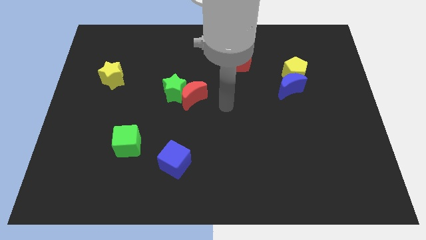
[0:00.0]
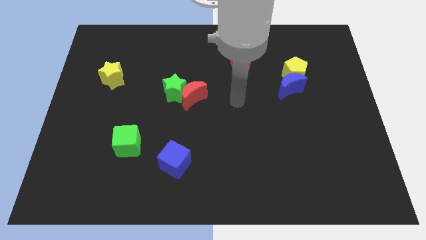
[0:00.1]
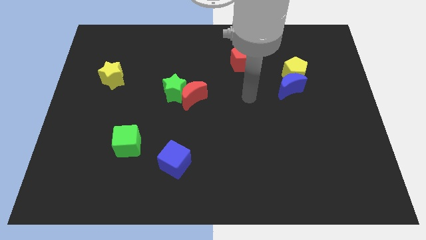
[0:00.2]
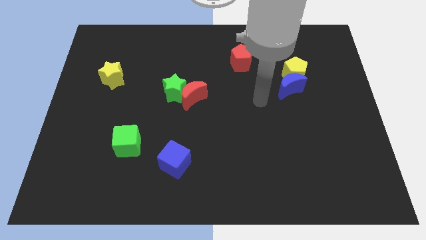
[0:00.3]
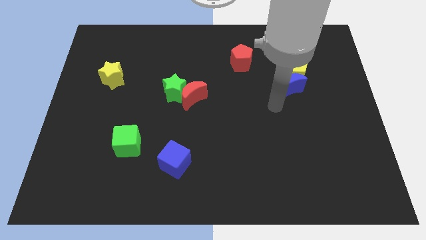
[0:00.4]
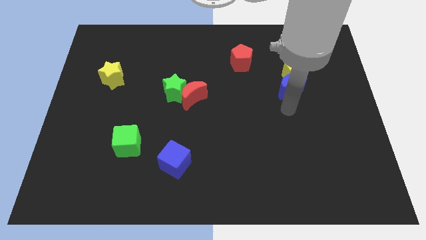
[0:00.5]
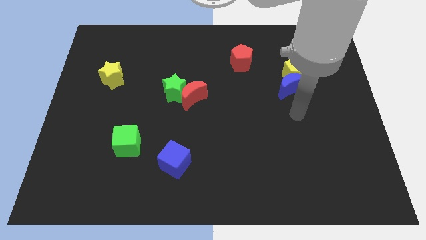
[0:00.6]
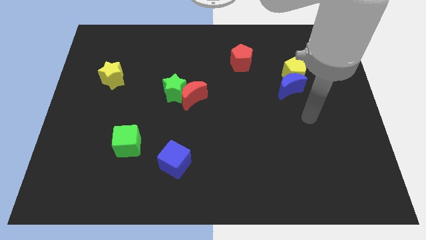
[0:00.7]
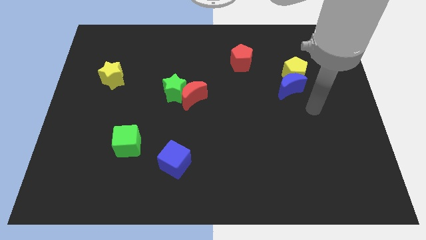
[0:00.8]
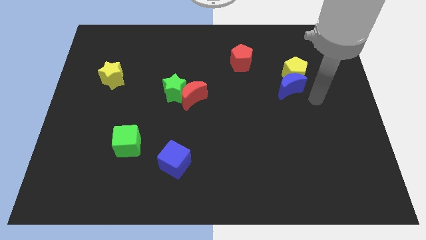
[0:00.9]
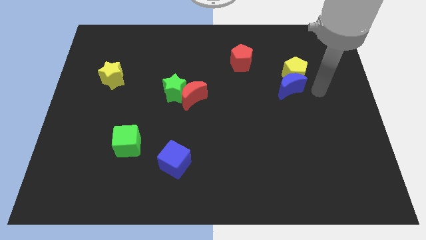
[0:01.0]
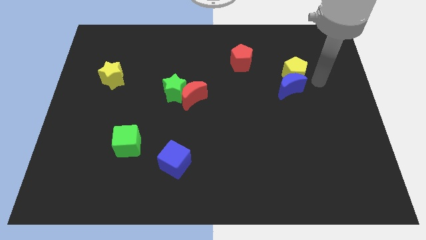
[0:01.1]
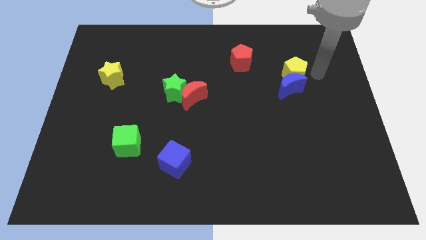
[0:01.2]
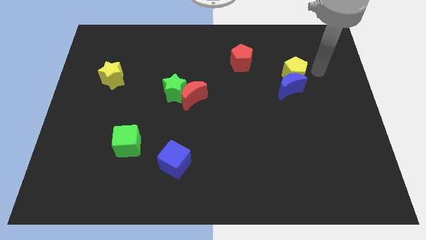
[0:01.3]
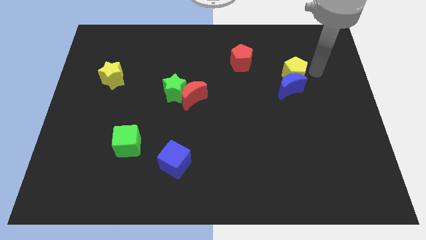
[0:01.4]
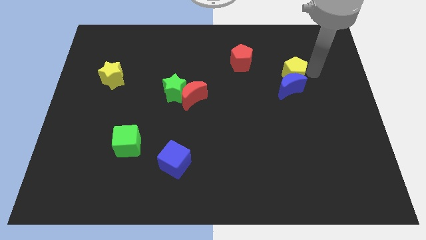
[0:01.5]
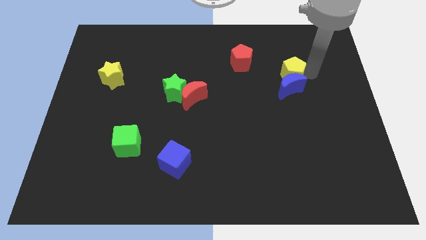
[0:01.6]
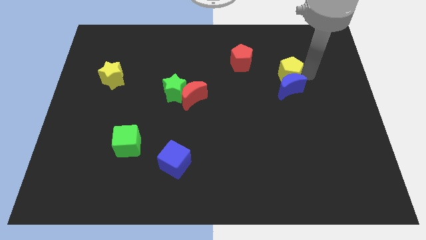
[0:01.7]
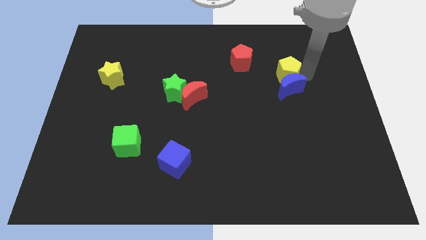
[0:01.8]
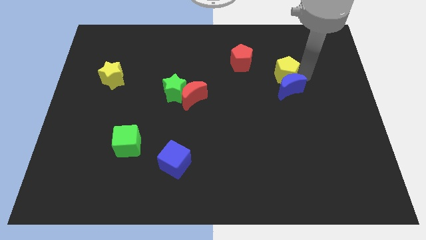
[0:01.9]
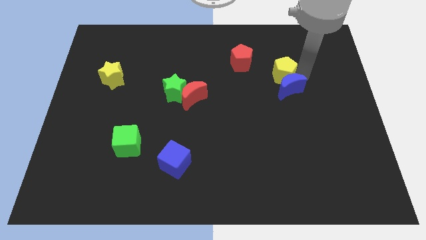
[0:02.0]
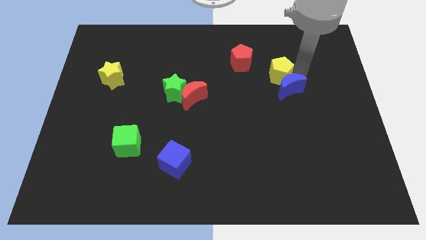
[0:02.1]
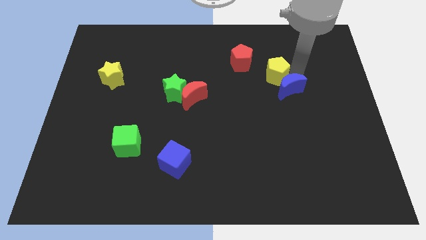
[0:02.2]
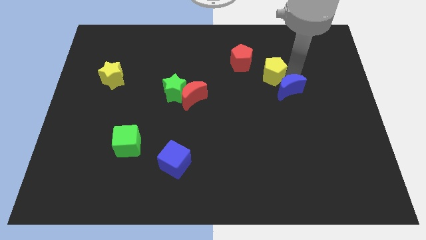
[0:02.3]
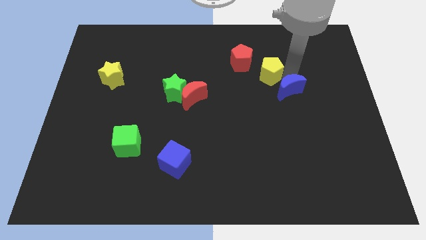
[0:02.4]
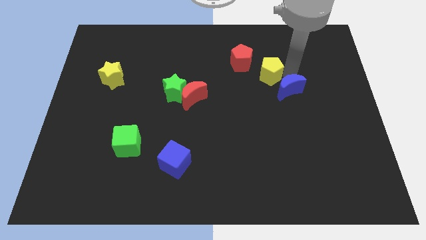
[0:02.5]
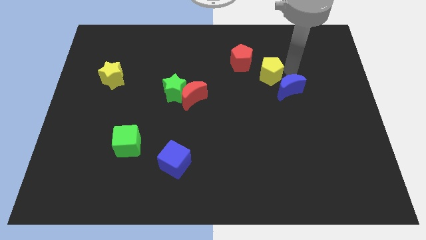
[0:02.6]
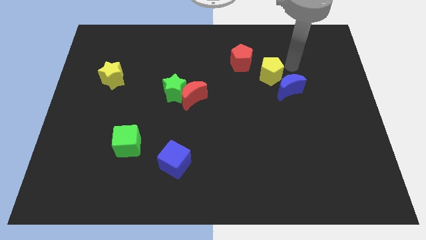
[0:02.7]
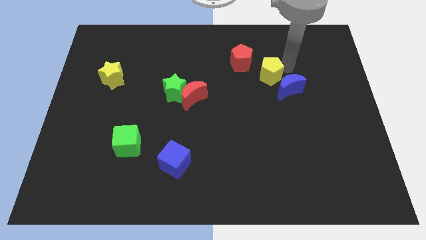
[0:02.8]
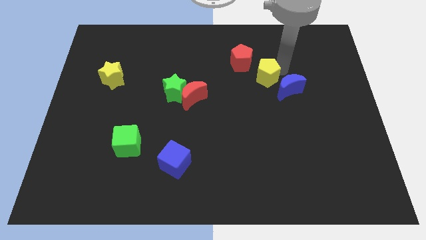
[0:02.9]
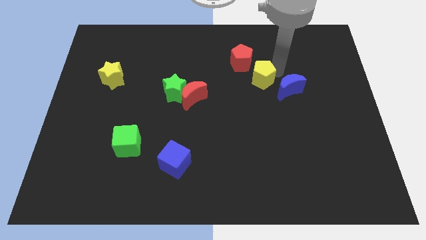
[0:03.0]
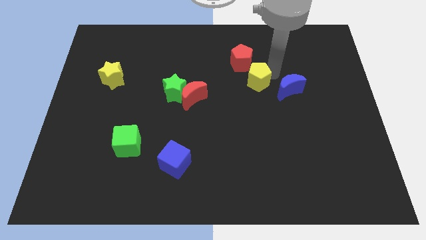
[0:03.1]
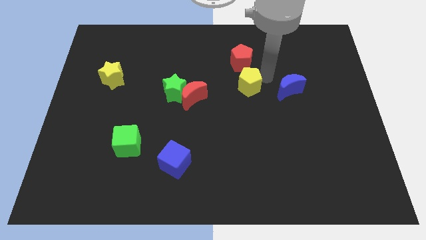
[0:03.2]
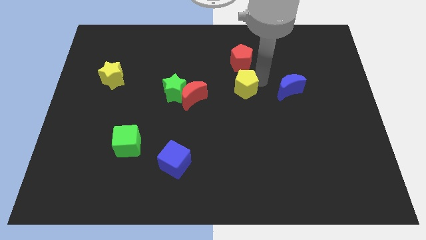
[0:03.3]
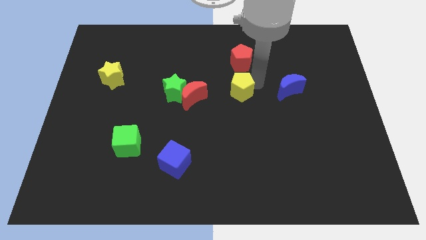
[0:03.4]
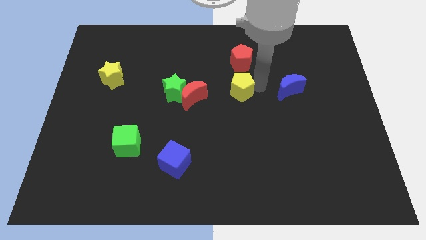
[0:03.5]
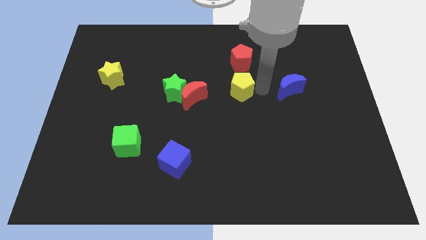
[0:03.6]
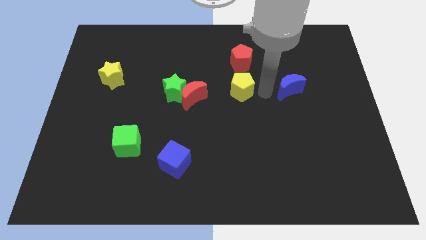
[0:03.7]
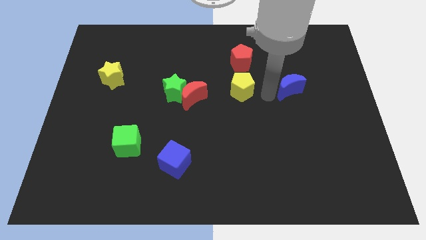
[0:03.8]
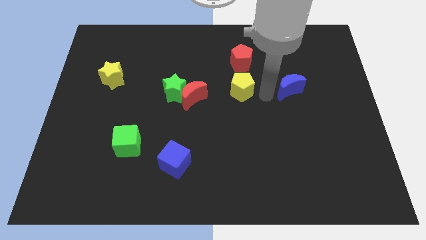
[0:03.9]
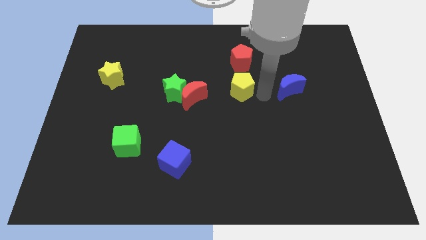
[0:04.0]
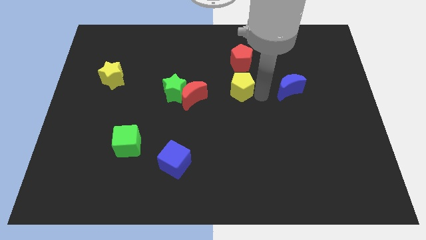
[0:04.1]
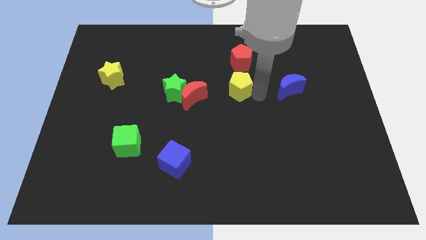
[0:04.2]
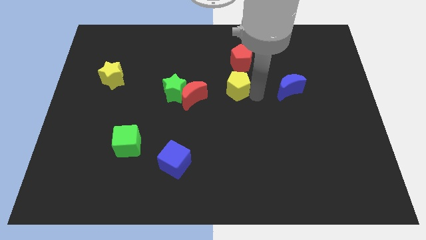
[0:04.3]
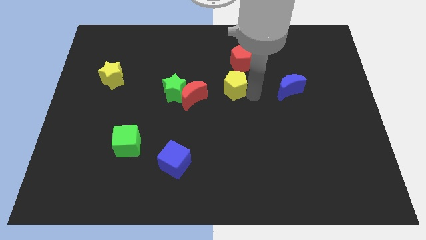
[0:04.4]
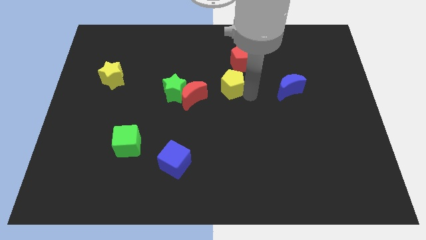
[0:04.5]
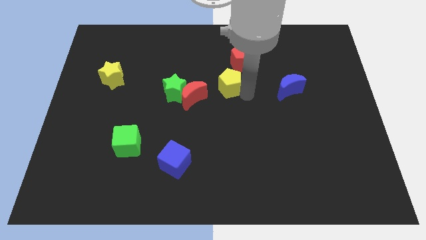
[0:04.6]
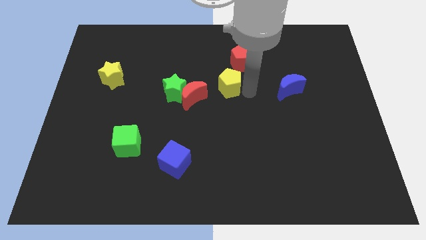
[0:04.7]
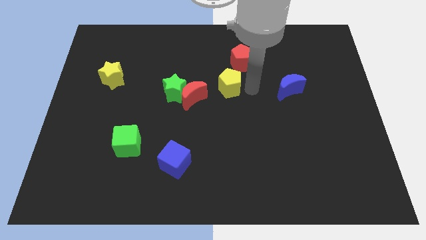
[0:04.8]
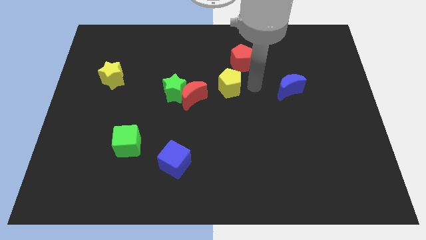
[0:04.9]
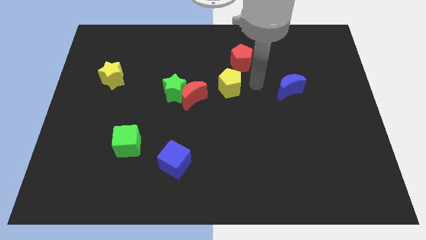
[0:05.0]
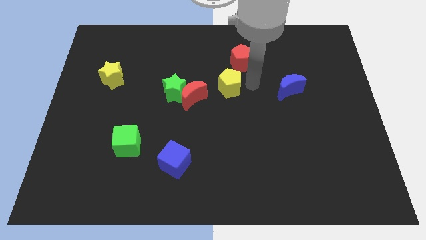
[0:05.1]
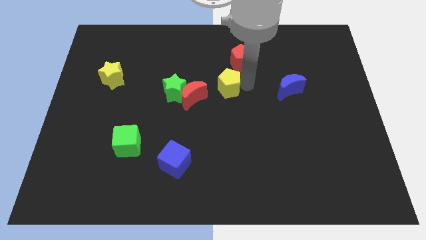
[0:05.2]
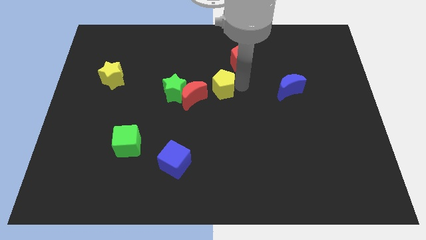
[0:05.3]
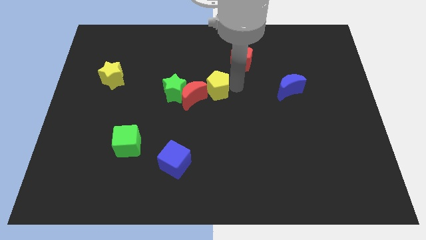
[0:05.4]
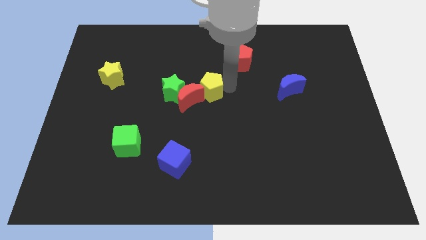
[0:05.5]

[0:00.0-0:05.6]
put the yellow pentagon to the red moon

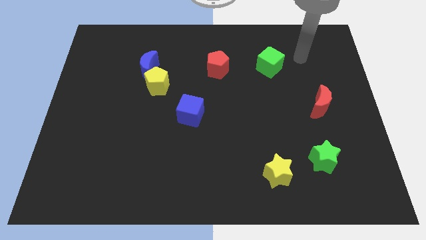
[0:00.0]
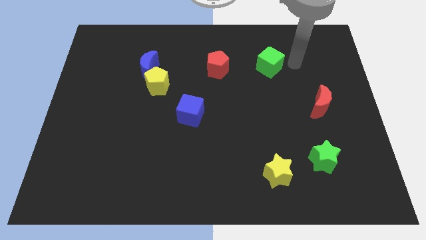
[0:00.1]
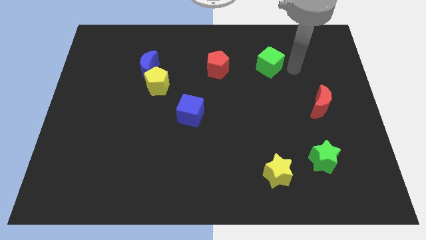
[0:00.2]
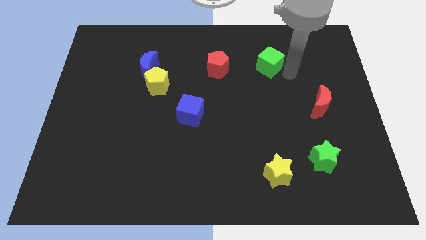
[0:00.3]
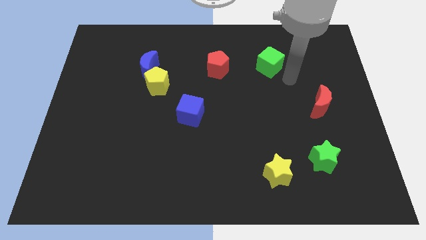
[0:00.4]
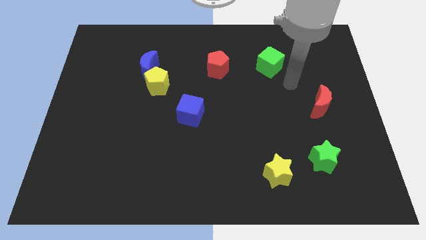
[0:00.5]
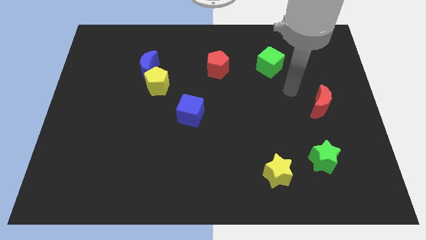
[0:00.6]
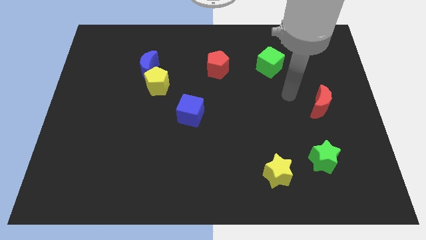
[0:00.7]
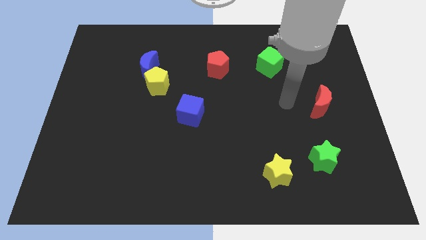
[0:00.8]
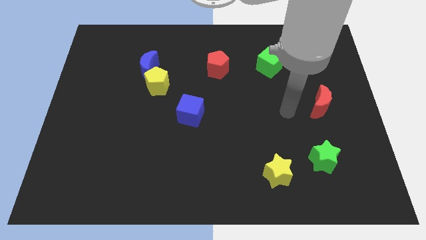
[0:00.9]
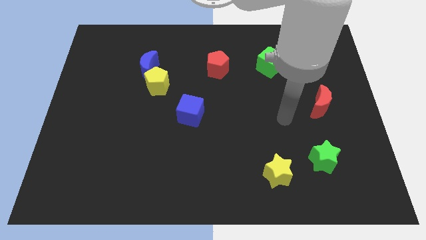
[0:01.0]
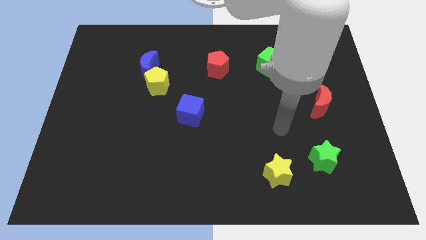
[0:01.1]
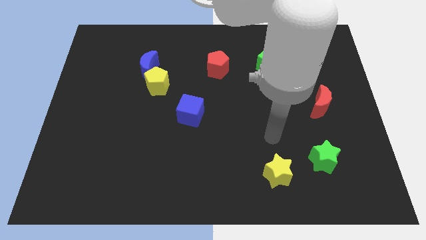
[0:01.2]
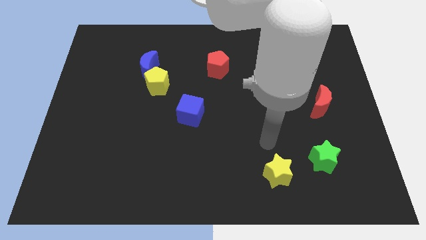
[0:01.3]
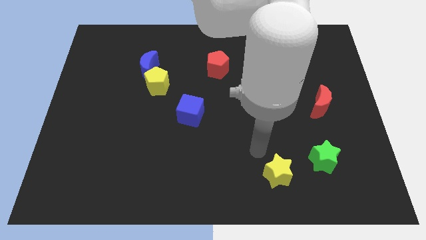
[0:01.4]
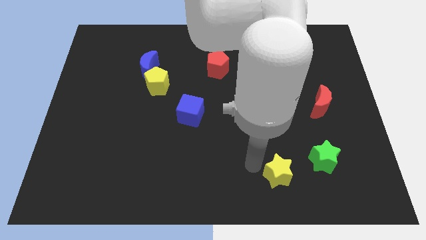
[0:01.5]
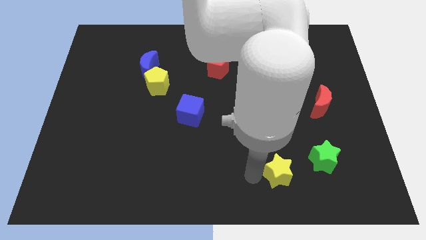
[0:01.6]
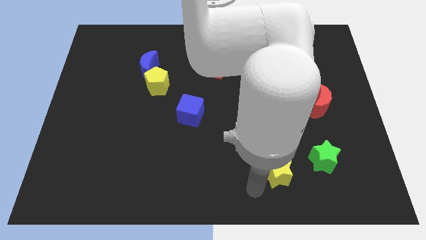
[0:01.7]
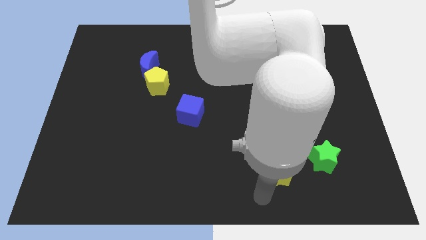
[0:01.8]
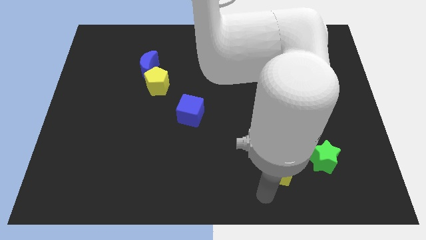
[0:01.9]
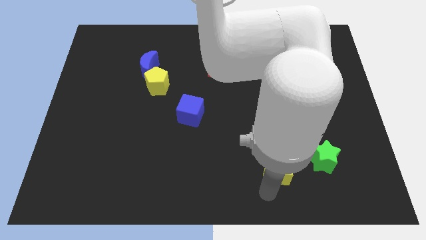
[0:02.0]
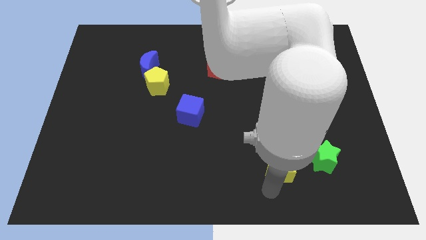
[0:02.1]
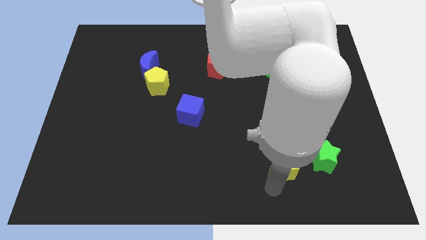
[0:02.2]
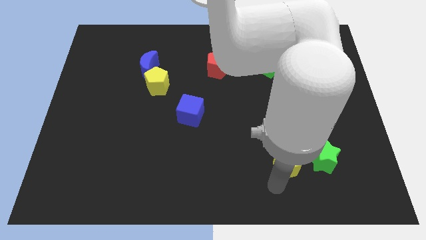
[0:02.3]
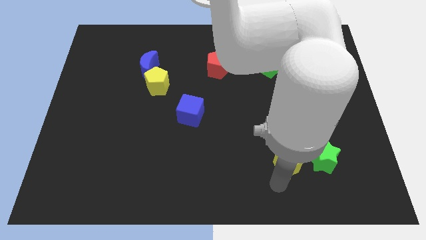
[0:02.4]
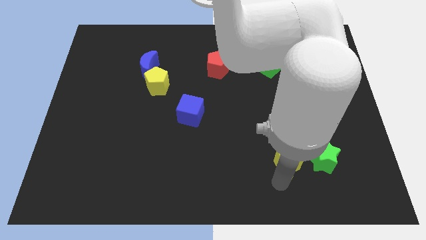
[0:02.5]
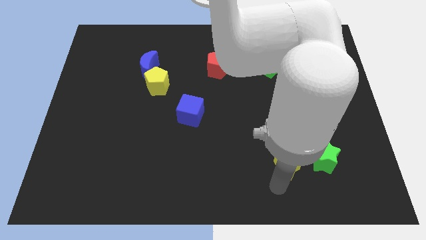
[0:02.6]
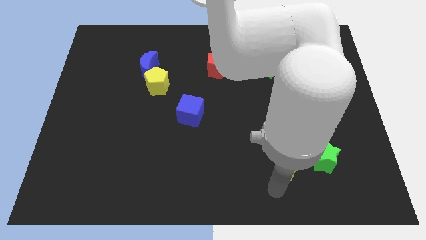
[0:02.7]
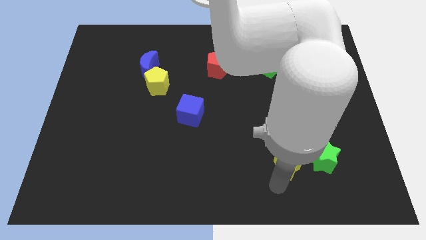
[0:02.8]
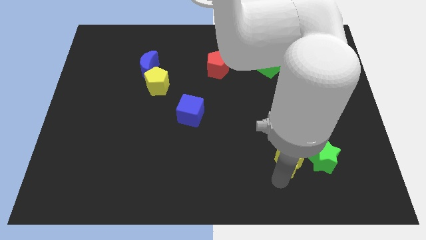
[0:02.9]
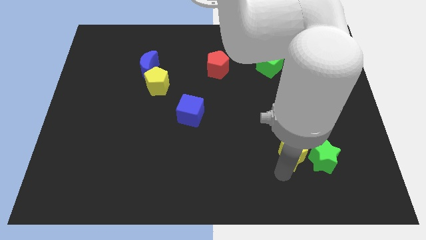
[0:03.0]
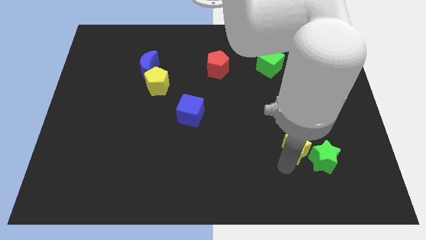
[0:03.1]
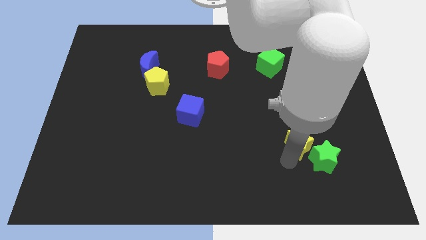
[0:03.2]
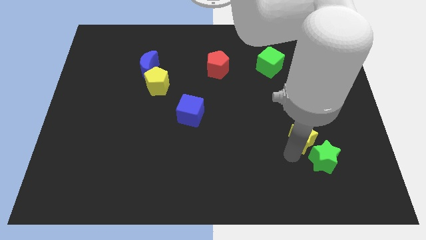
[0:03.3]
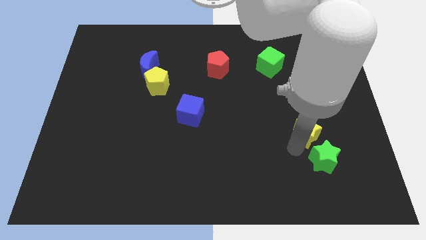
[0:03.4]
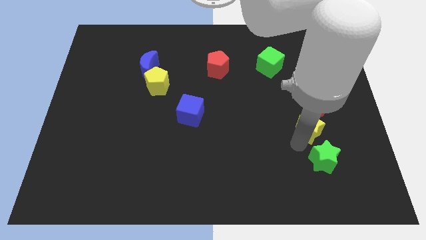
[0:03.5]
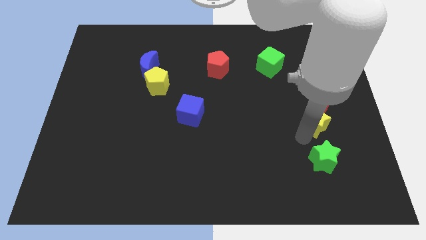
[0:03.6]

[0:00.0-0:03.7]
push the yellow star next to the red moon
